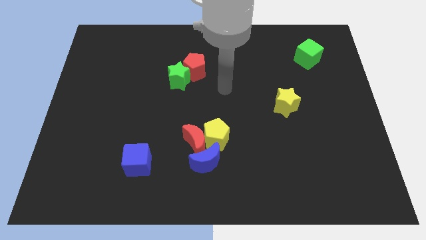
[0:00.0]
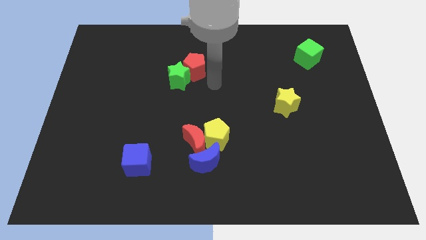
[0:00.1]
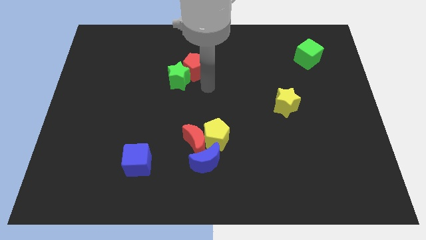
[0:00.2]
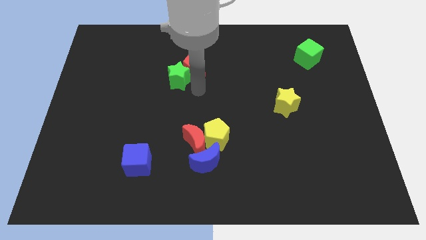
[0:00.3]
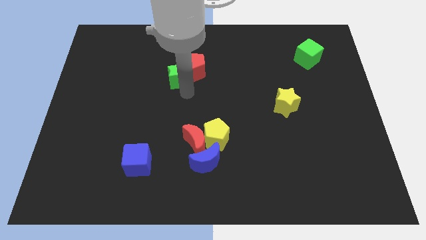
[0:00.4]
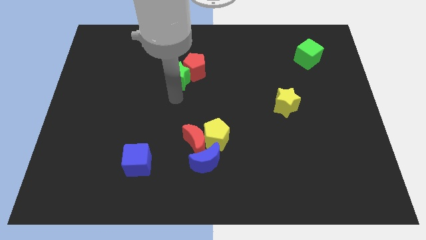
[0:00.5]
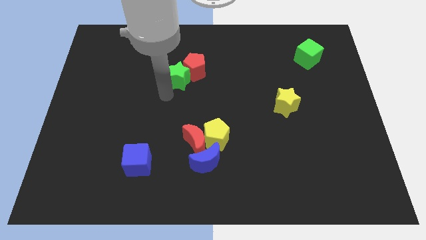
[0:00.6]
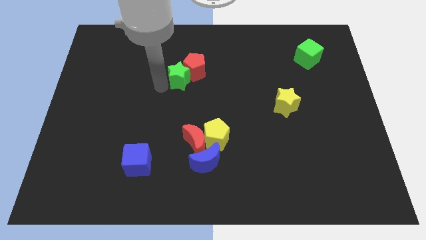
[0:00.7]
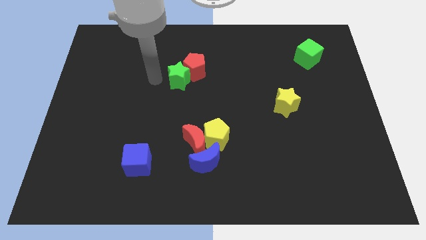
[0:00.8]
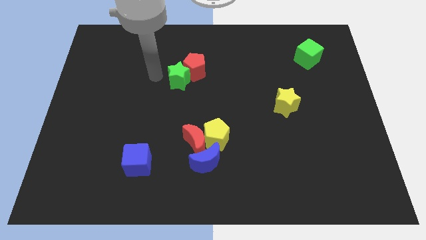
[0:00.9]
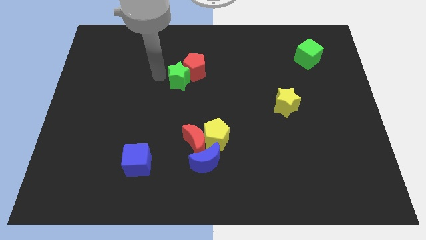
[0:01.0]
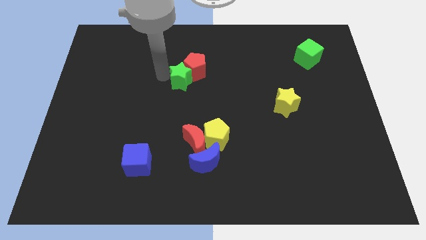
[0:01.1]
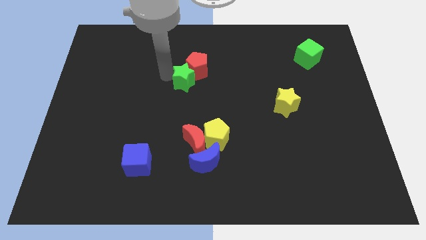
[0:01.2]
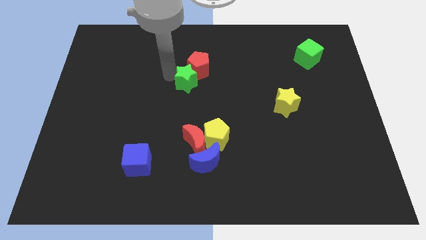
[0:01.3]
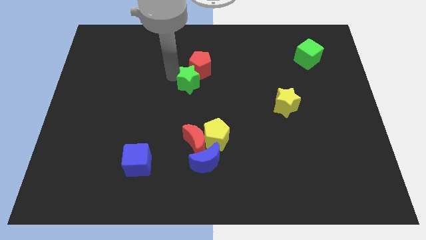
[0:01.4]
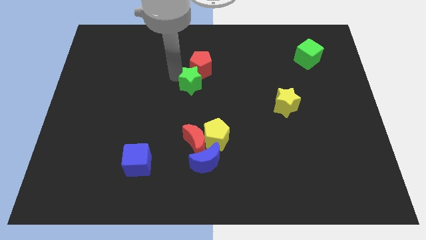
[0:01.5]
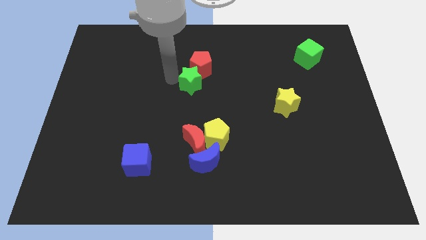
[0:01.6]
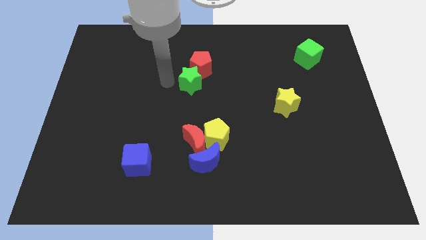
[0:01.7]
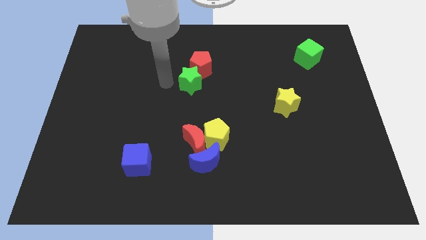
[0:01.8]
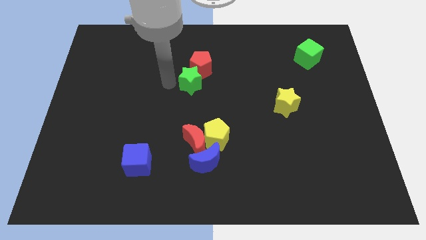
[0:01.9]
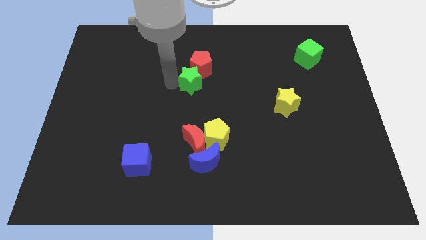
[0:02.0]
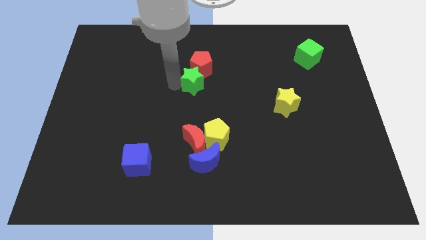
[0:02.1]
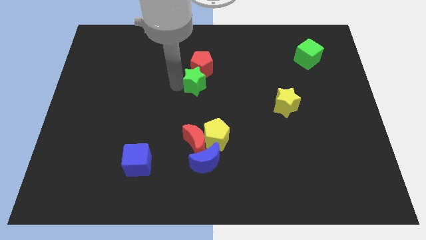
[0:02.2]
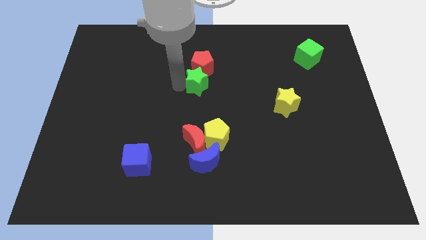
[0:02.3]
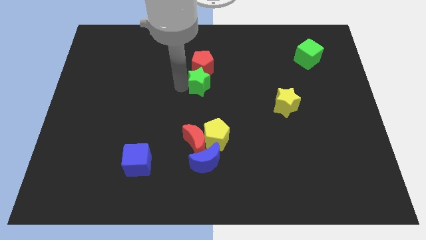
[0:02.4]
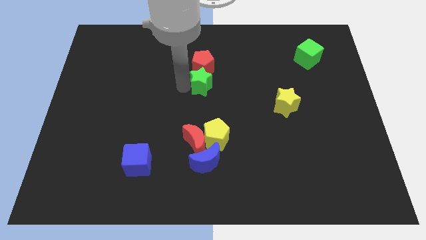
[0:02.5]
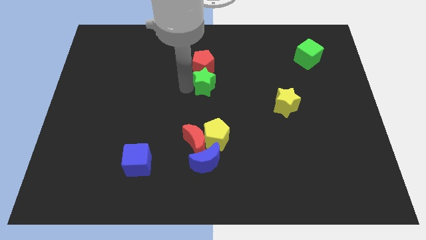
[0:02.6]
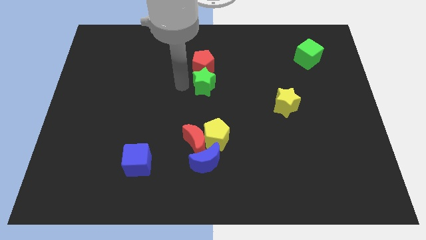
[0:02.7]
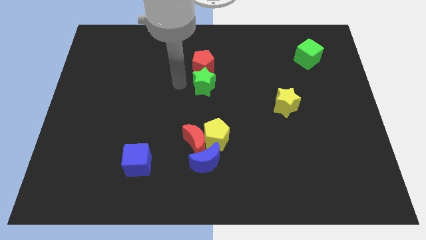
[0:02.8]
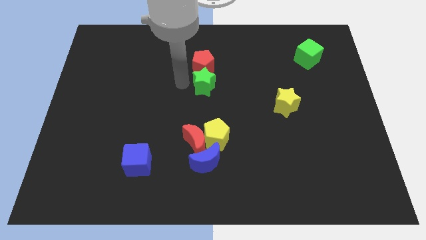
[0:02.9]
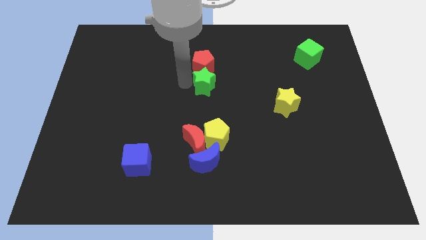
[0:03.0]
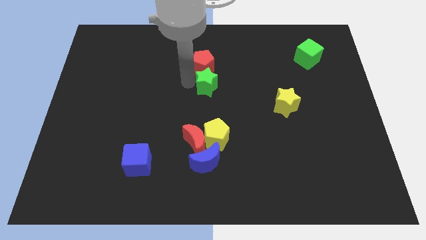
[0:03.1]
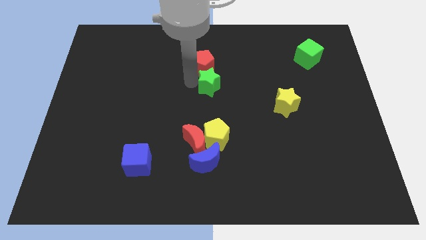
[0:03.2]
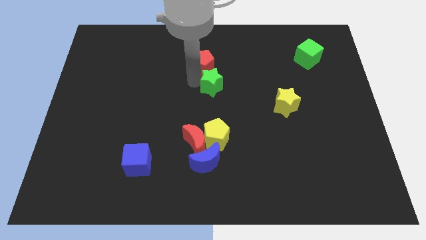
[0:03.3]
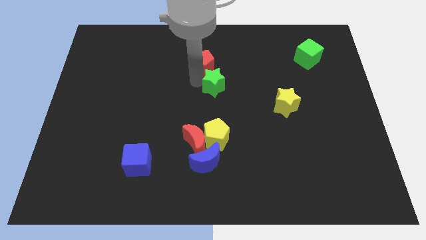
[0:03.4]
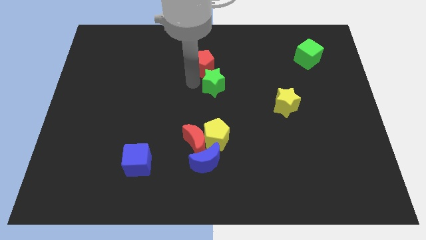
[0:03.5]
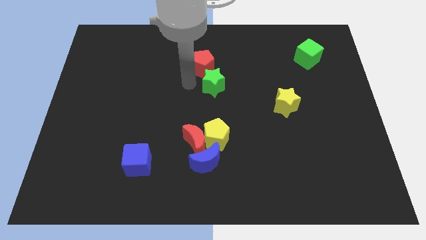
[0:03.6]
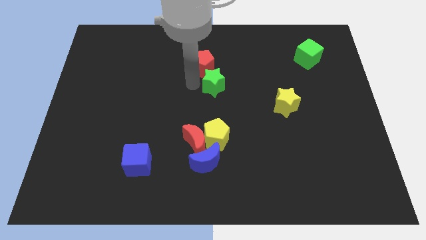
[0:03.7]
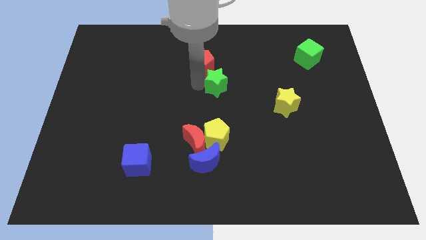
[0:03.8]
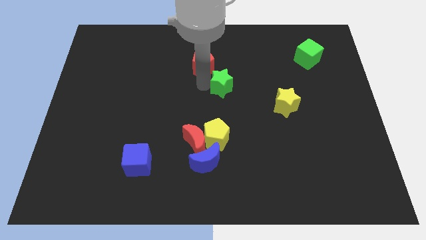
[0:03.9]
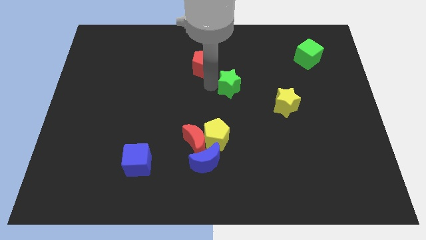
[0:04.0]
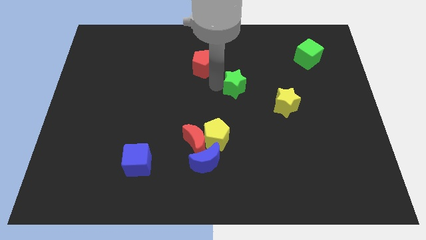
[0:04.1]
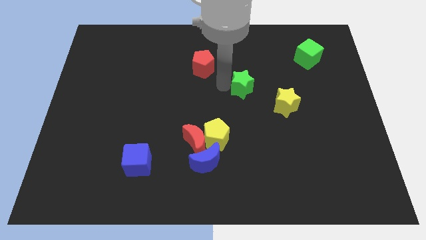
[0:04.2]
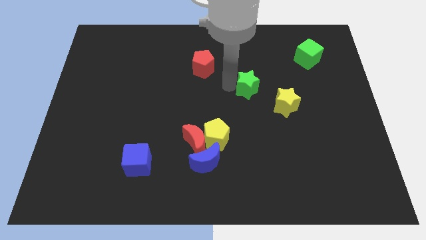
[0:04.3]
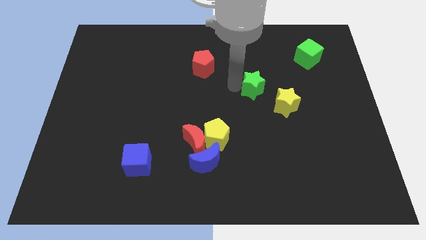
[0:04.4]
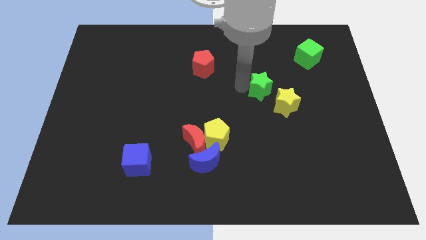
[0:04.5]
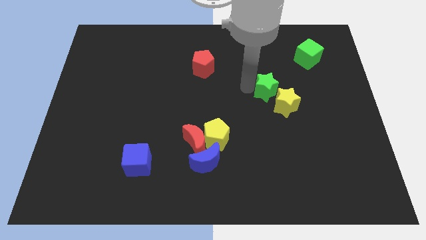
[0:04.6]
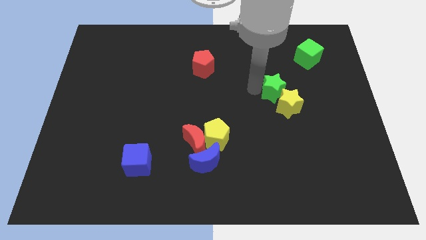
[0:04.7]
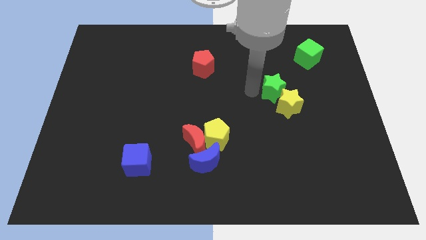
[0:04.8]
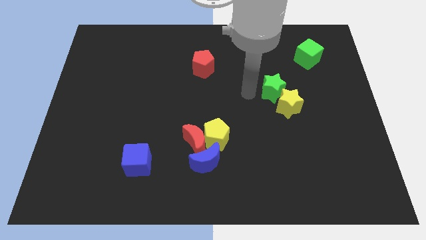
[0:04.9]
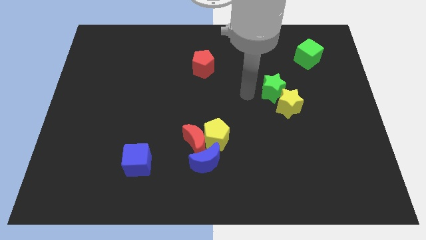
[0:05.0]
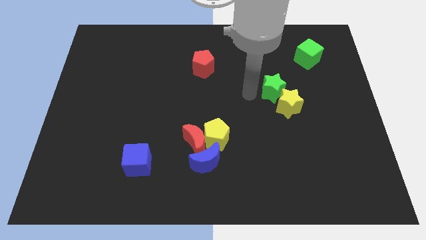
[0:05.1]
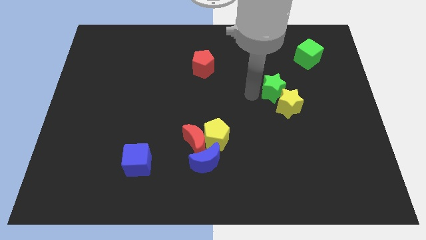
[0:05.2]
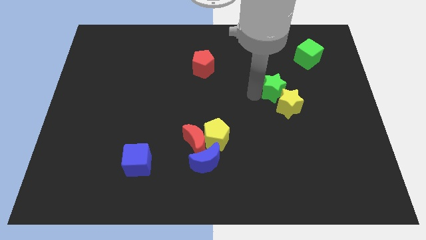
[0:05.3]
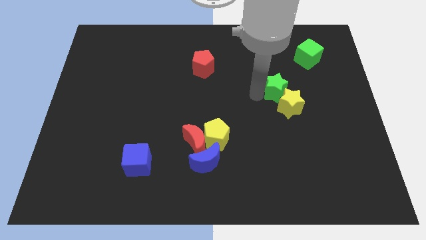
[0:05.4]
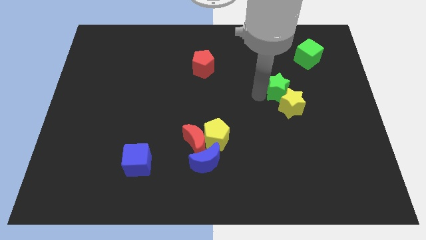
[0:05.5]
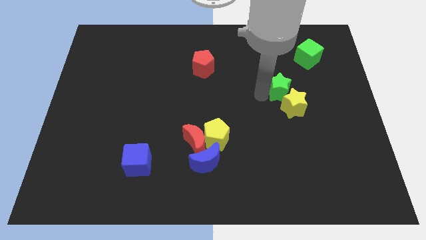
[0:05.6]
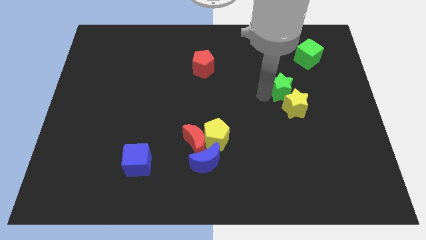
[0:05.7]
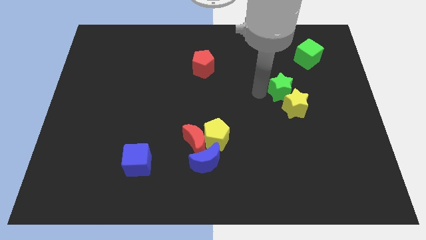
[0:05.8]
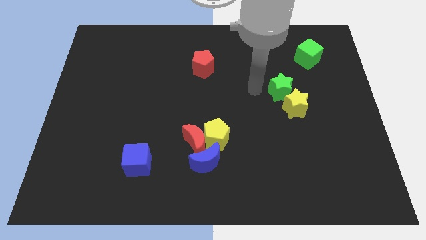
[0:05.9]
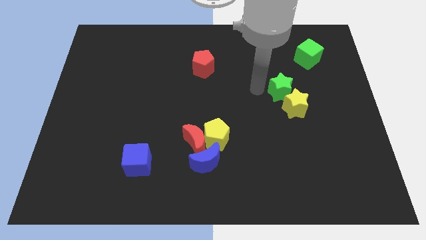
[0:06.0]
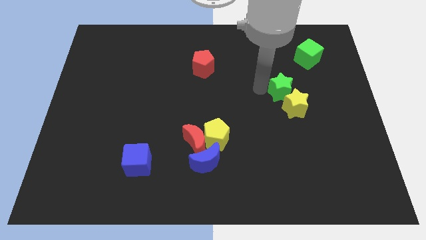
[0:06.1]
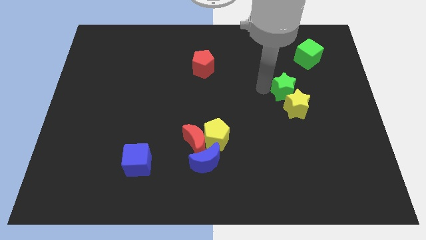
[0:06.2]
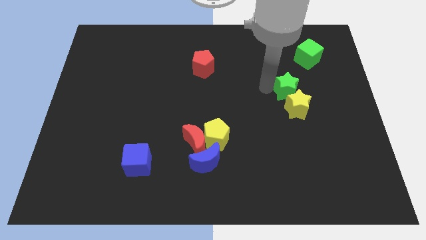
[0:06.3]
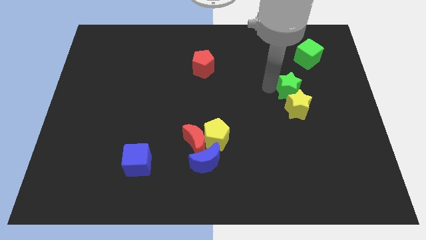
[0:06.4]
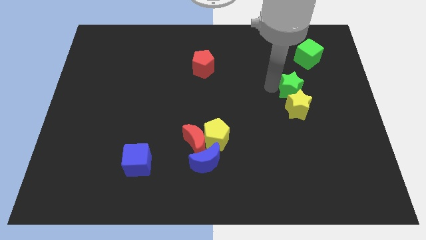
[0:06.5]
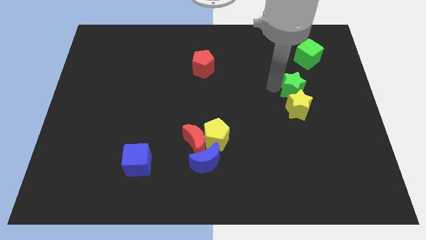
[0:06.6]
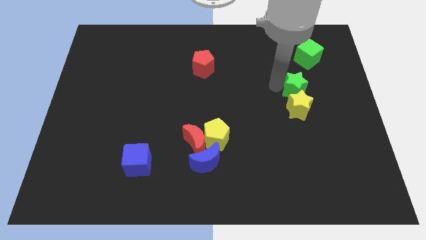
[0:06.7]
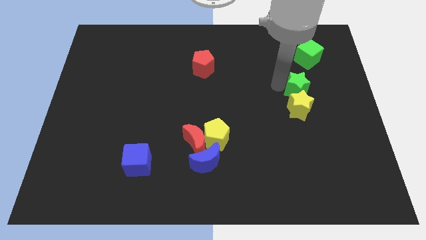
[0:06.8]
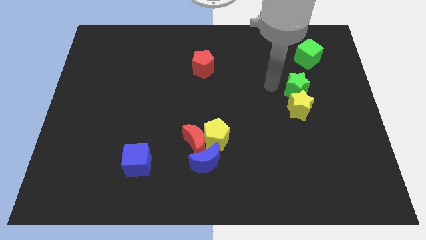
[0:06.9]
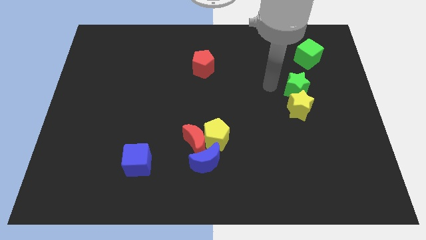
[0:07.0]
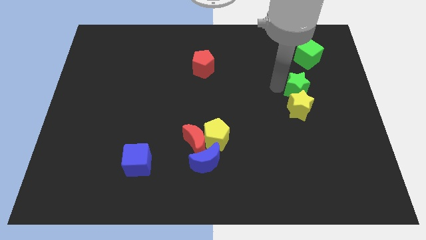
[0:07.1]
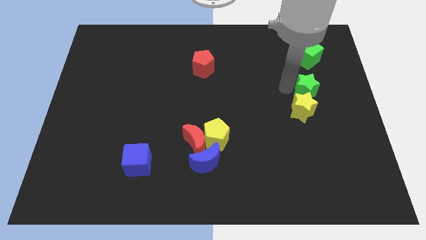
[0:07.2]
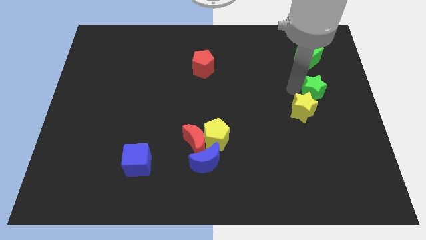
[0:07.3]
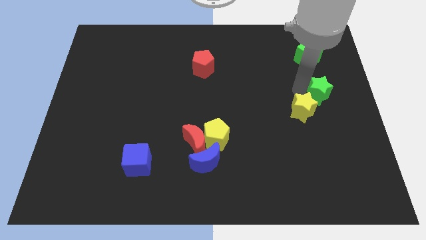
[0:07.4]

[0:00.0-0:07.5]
move the green star to the right side
